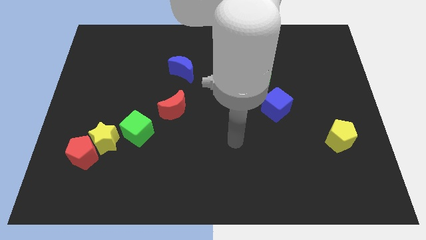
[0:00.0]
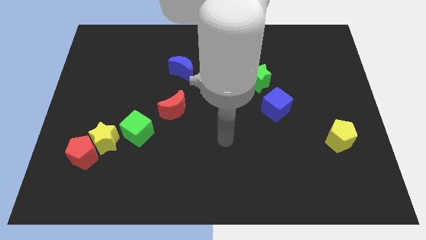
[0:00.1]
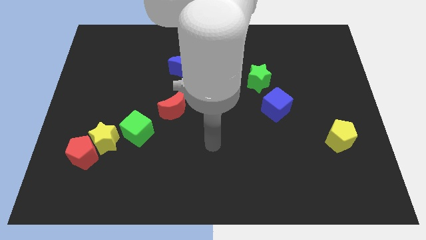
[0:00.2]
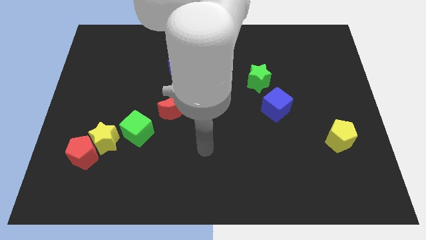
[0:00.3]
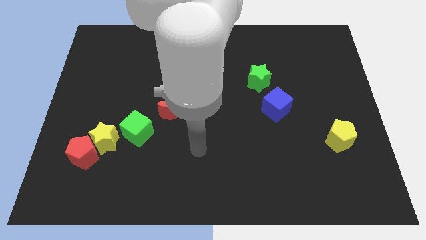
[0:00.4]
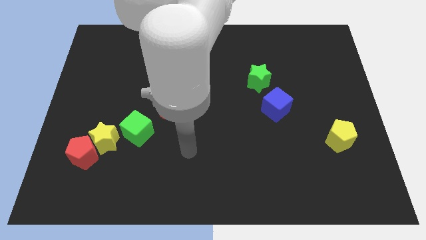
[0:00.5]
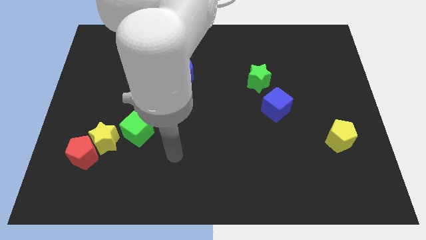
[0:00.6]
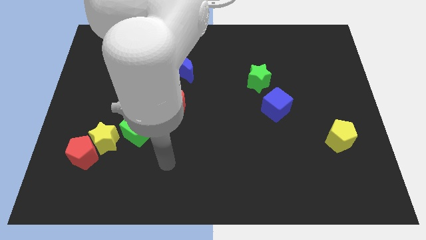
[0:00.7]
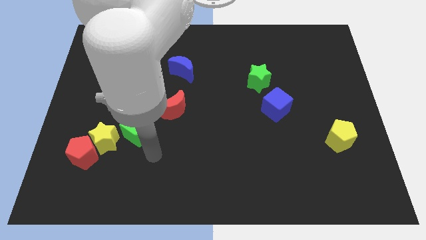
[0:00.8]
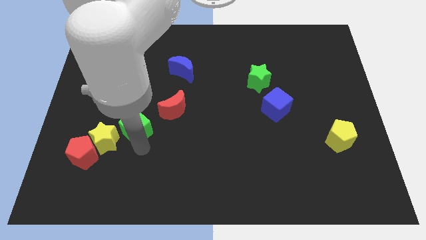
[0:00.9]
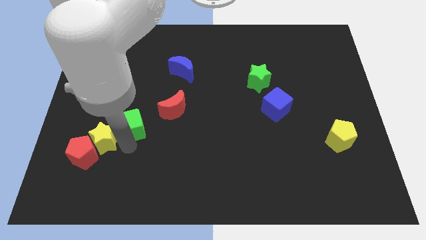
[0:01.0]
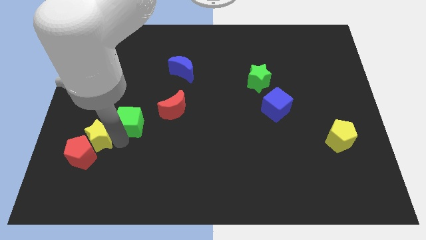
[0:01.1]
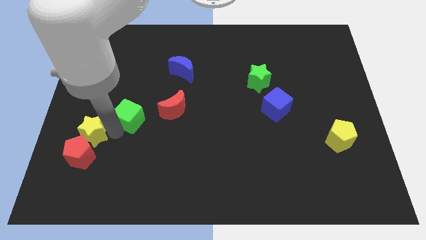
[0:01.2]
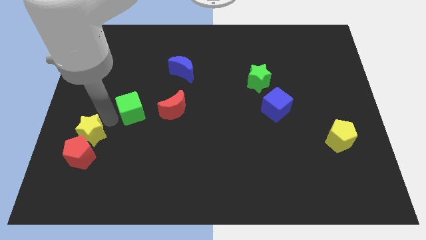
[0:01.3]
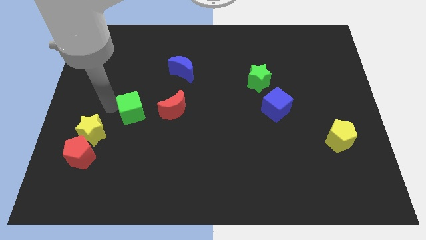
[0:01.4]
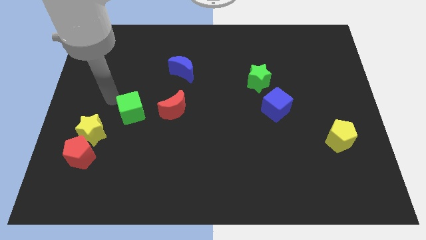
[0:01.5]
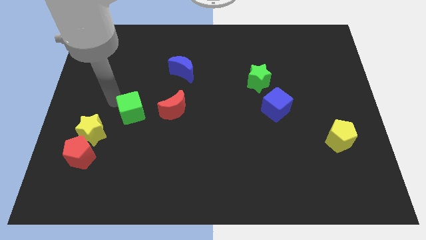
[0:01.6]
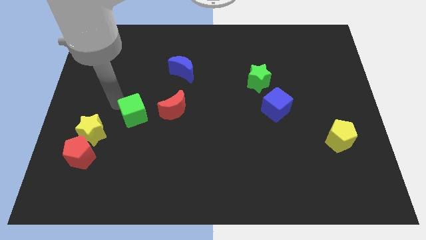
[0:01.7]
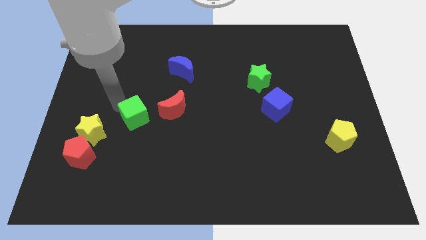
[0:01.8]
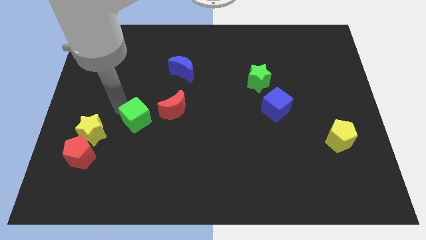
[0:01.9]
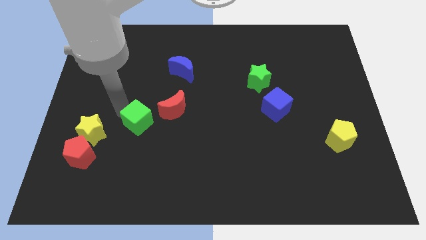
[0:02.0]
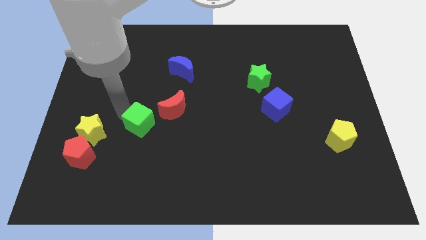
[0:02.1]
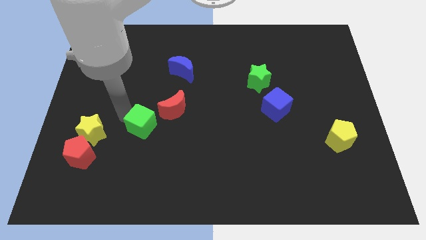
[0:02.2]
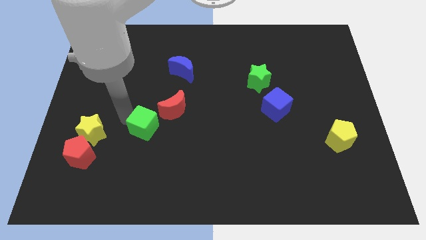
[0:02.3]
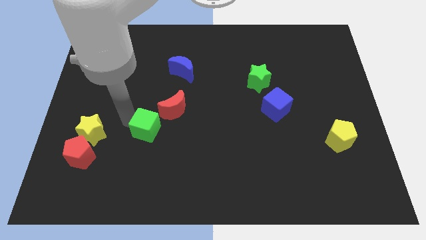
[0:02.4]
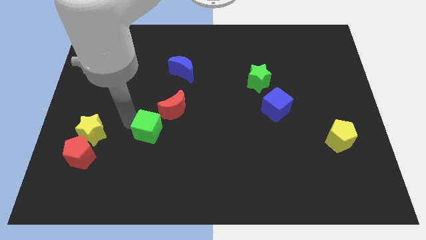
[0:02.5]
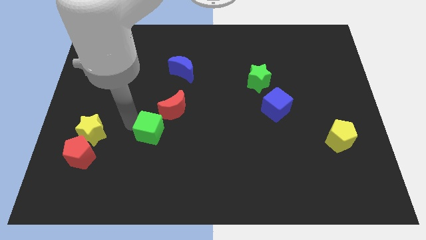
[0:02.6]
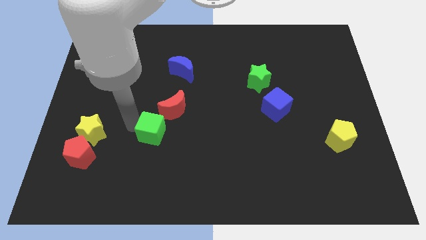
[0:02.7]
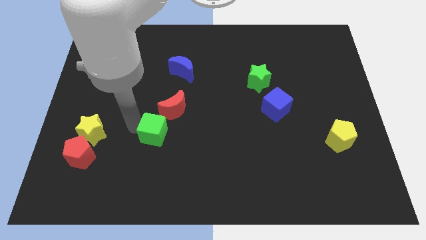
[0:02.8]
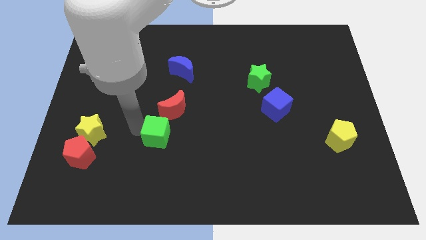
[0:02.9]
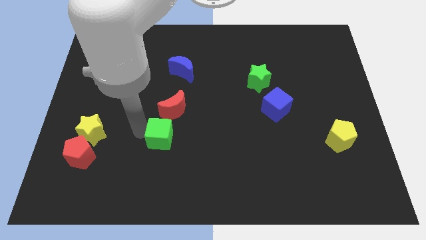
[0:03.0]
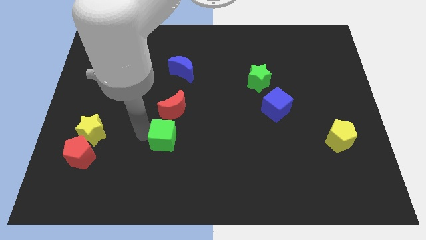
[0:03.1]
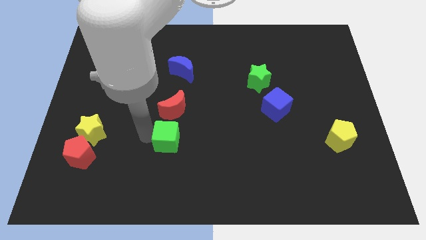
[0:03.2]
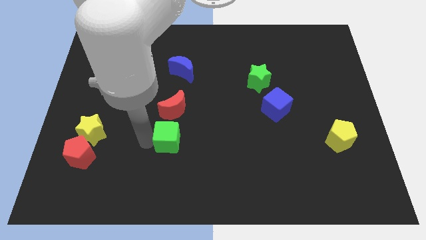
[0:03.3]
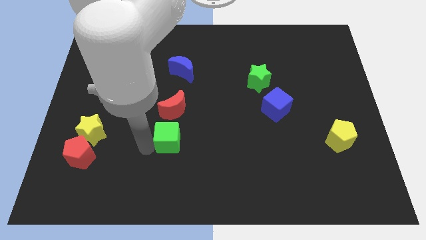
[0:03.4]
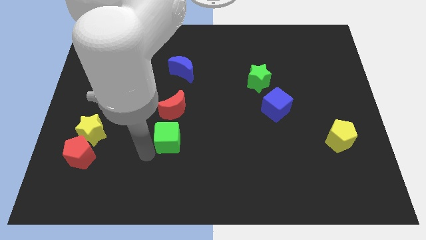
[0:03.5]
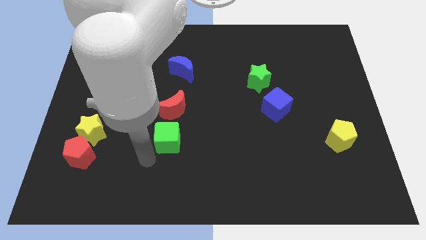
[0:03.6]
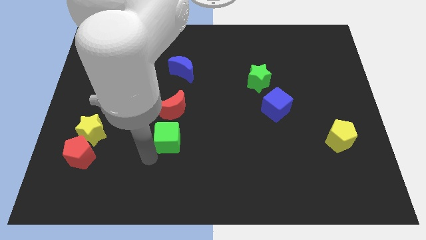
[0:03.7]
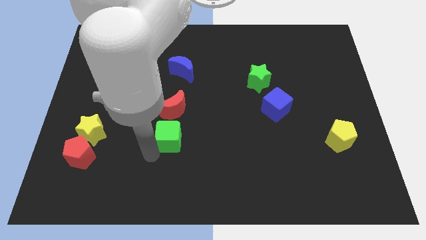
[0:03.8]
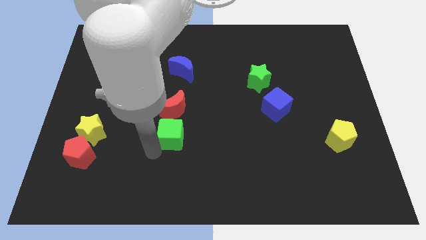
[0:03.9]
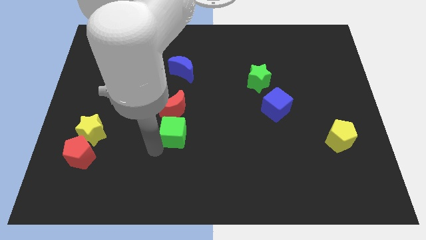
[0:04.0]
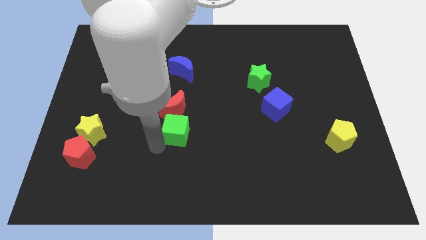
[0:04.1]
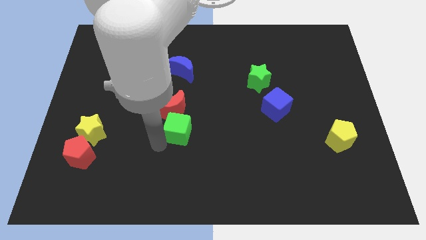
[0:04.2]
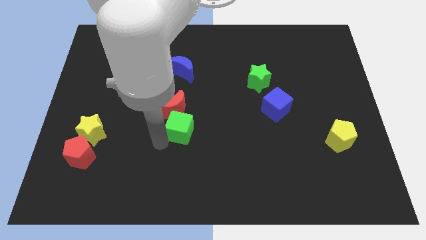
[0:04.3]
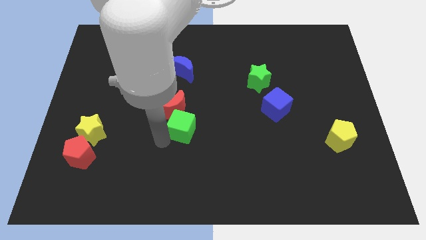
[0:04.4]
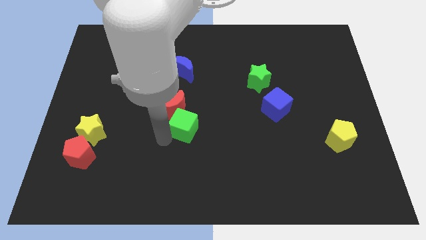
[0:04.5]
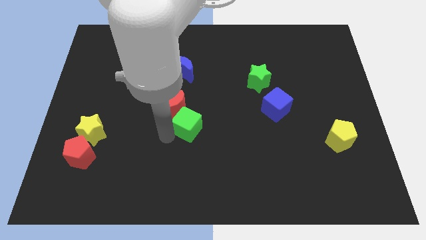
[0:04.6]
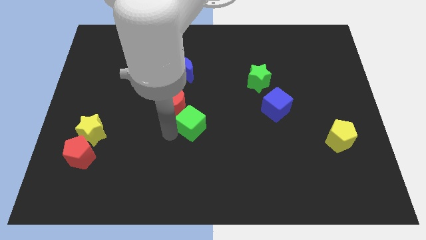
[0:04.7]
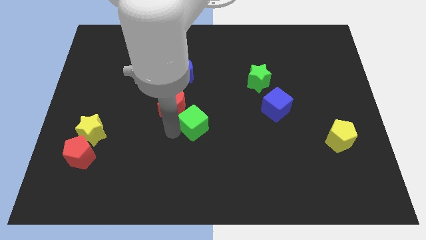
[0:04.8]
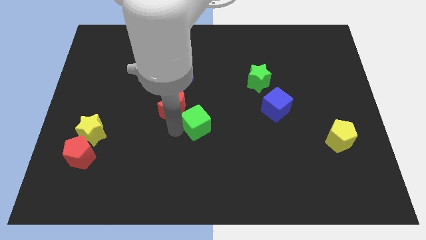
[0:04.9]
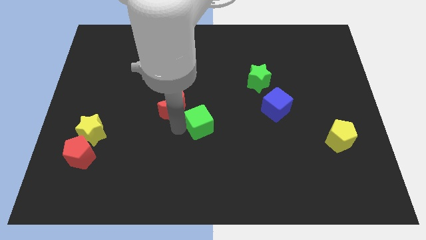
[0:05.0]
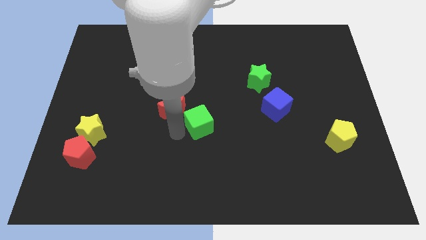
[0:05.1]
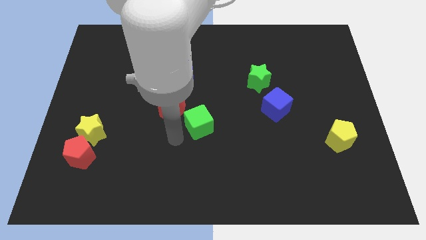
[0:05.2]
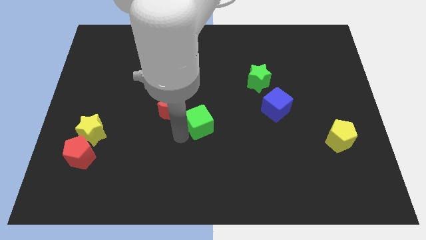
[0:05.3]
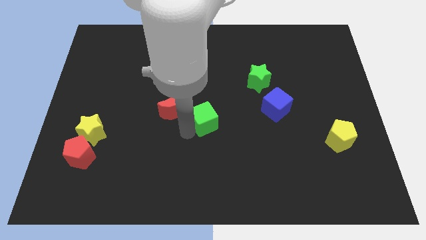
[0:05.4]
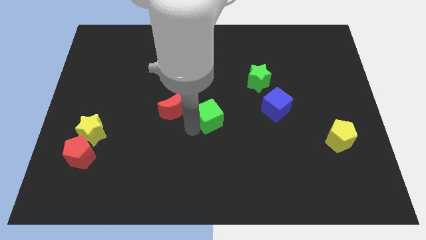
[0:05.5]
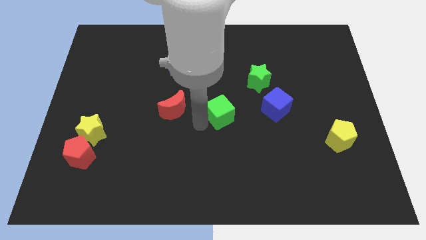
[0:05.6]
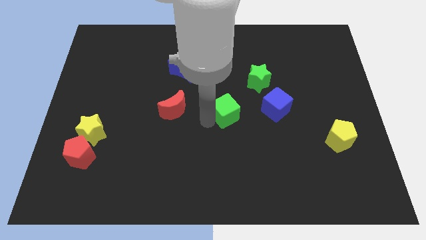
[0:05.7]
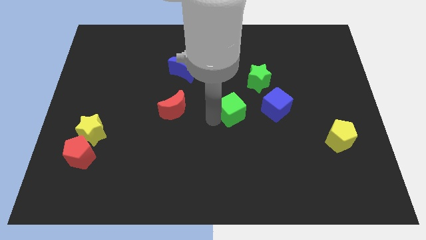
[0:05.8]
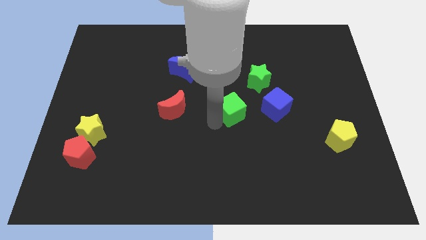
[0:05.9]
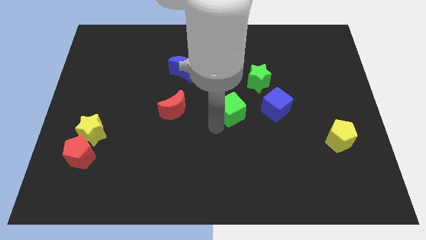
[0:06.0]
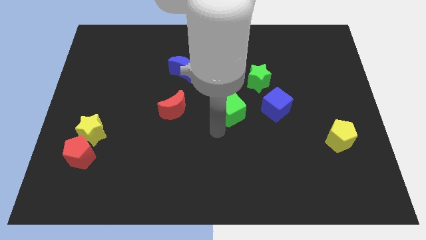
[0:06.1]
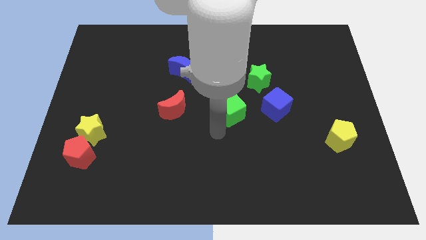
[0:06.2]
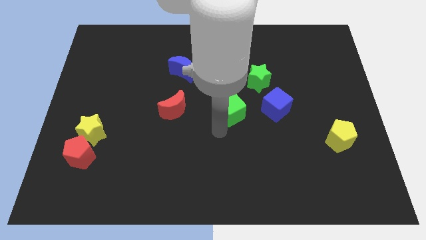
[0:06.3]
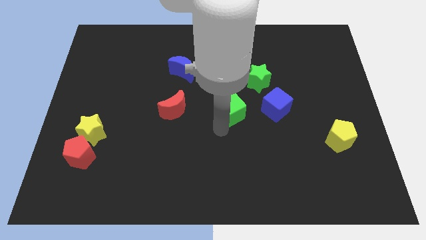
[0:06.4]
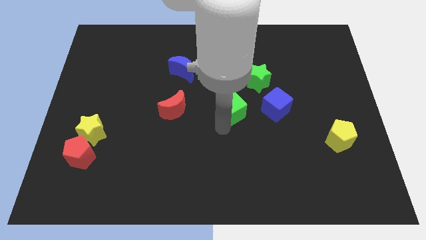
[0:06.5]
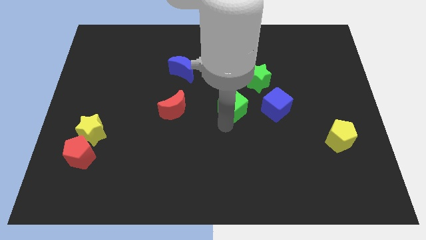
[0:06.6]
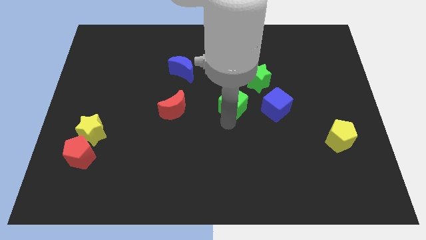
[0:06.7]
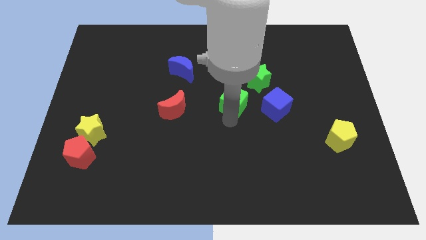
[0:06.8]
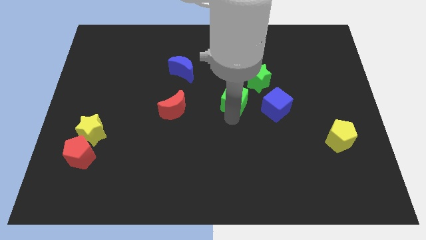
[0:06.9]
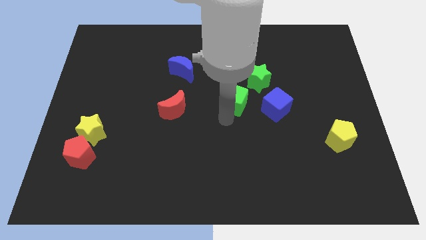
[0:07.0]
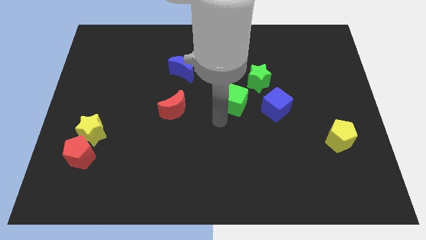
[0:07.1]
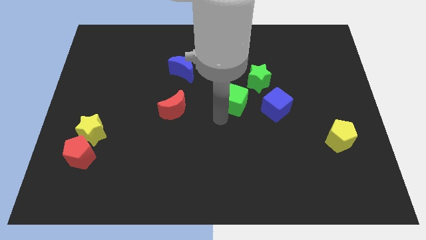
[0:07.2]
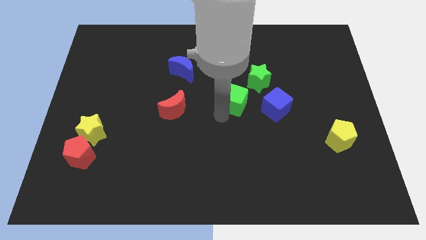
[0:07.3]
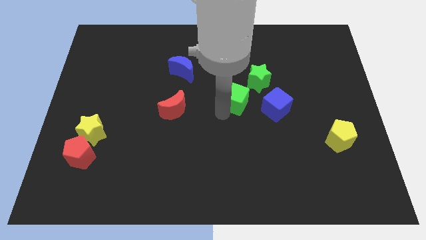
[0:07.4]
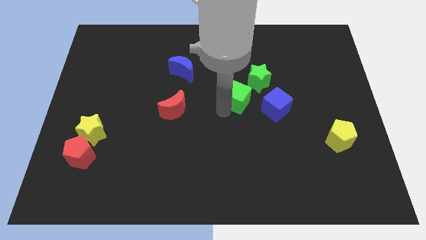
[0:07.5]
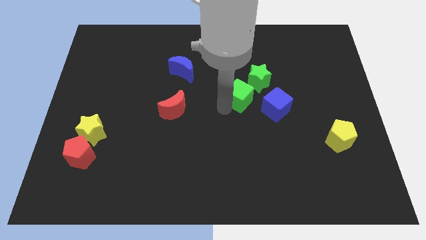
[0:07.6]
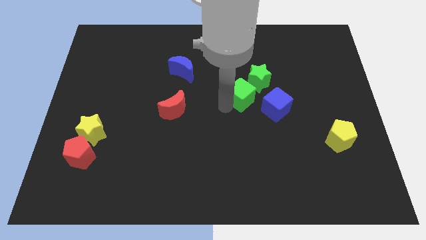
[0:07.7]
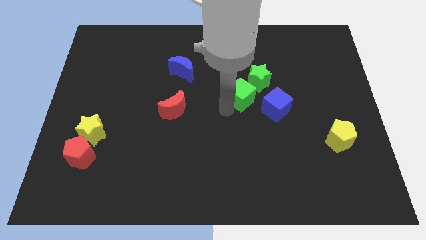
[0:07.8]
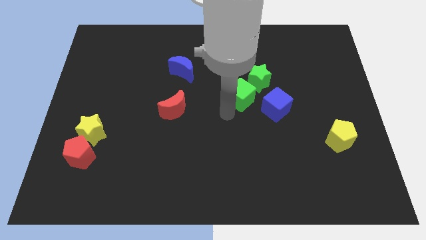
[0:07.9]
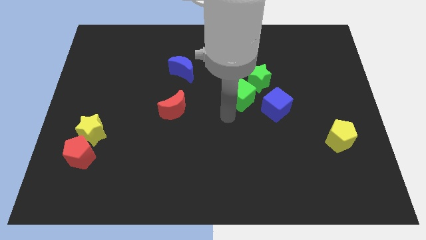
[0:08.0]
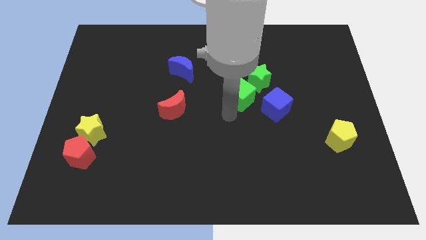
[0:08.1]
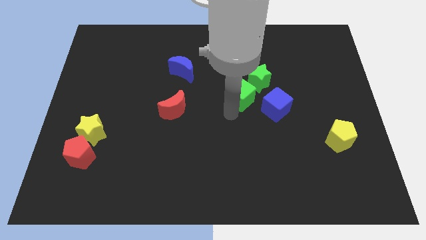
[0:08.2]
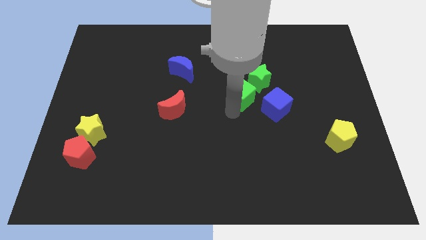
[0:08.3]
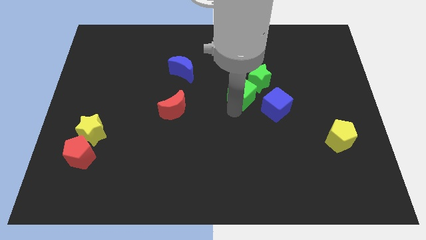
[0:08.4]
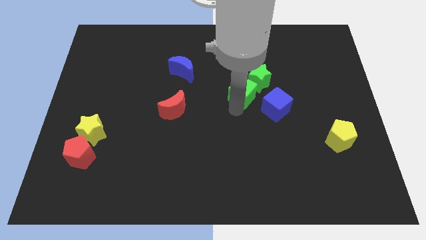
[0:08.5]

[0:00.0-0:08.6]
move the green cube towards the green star
